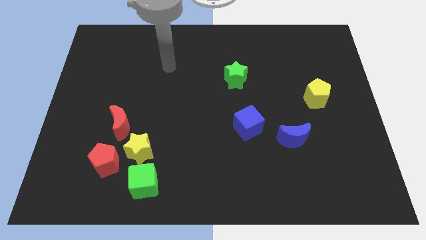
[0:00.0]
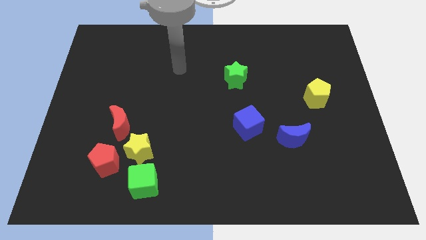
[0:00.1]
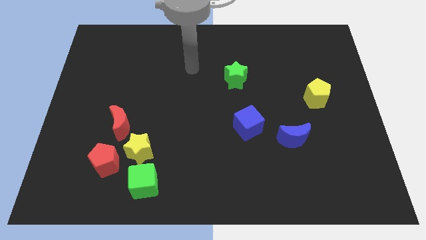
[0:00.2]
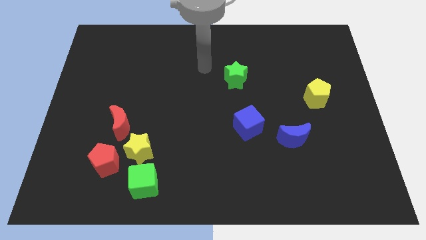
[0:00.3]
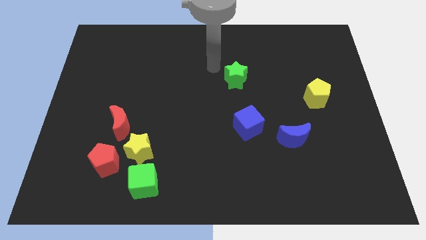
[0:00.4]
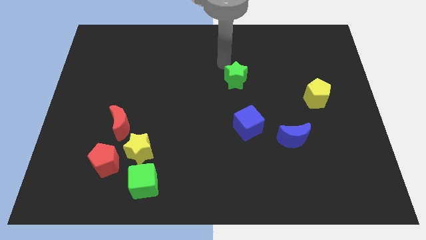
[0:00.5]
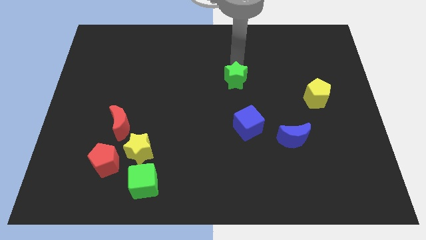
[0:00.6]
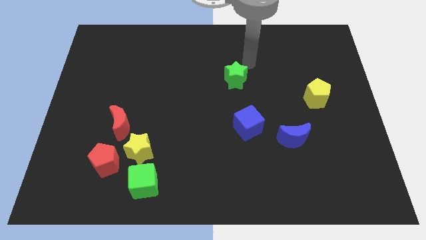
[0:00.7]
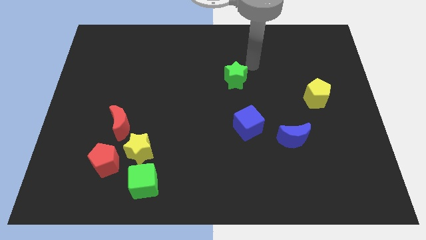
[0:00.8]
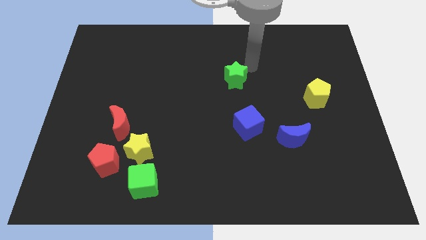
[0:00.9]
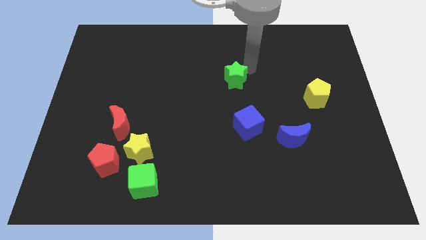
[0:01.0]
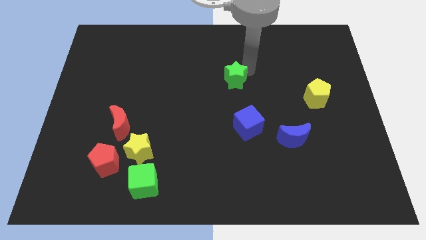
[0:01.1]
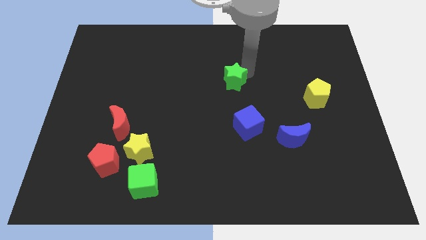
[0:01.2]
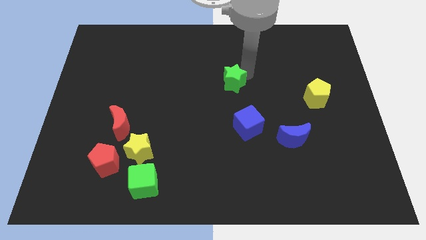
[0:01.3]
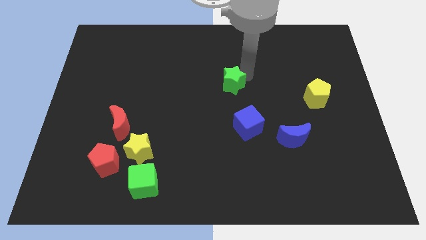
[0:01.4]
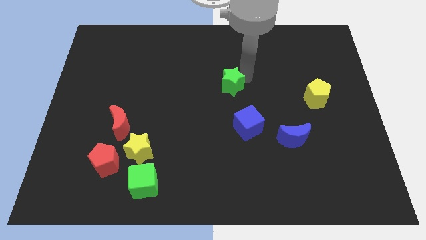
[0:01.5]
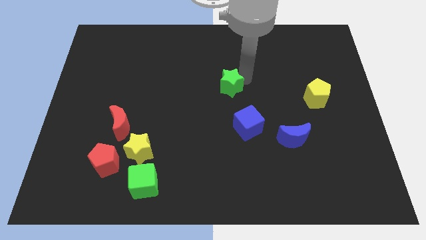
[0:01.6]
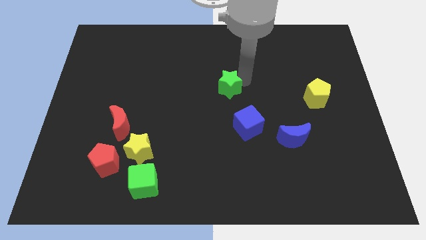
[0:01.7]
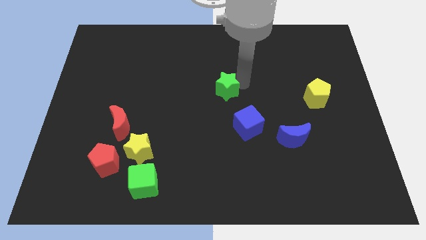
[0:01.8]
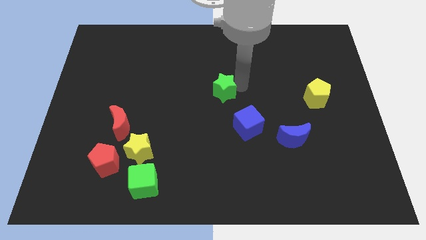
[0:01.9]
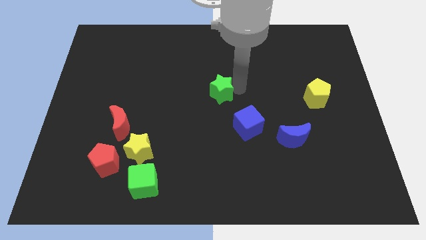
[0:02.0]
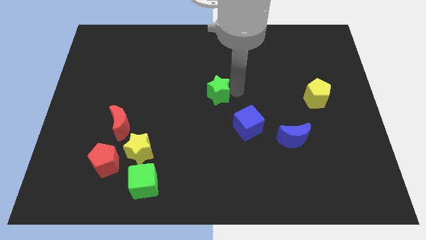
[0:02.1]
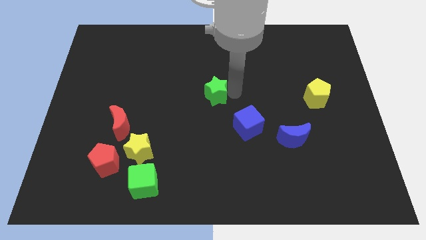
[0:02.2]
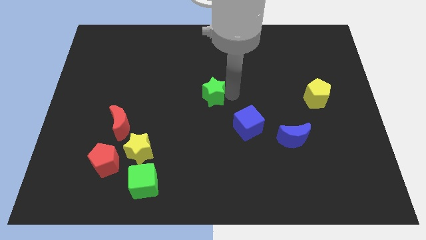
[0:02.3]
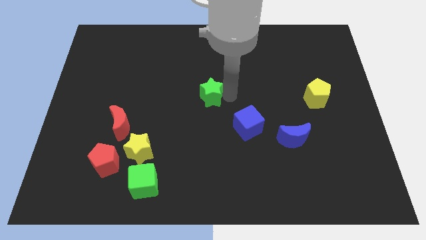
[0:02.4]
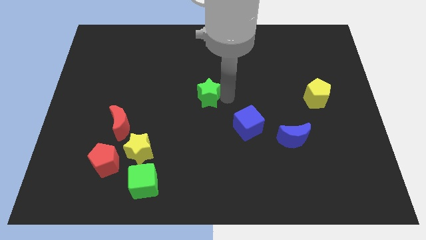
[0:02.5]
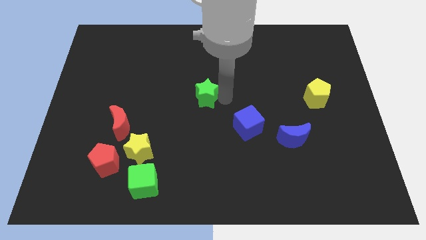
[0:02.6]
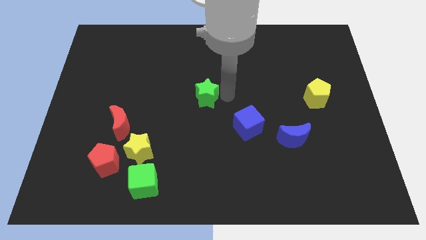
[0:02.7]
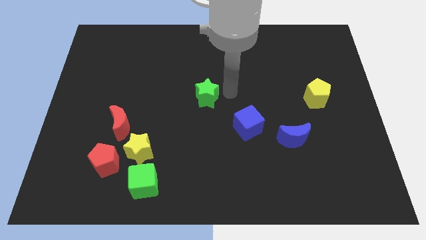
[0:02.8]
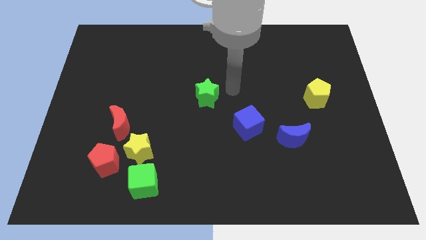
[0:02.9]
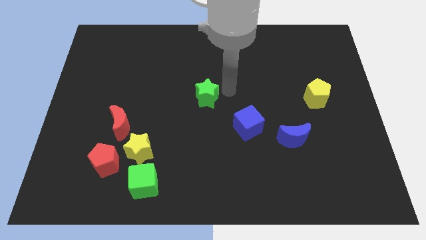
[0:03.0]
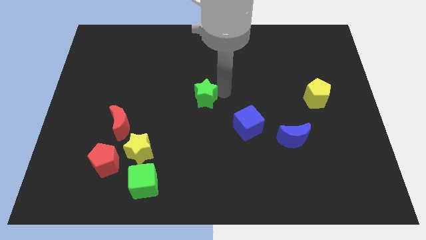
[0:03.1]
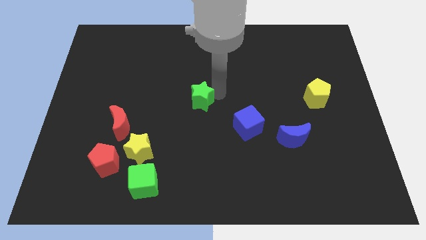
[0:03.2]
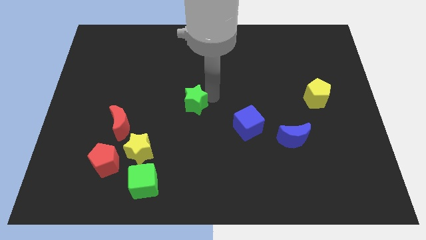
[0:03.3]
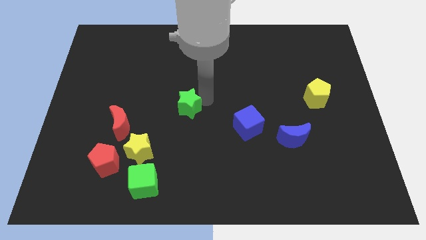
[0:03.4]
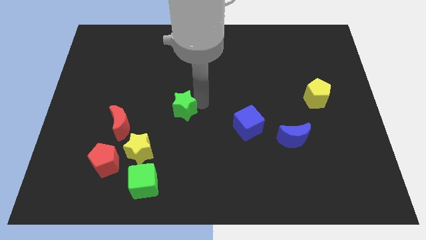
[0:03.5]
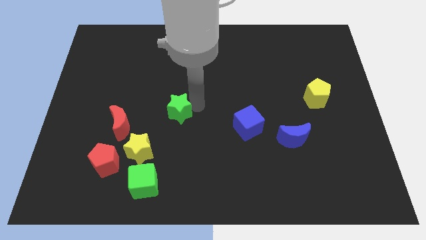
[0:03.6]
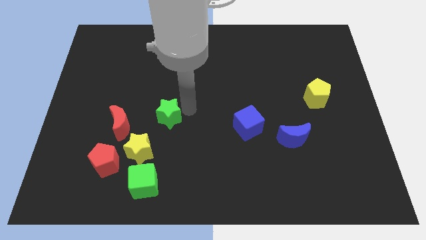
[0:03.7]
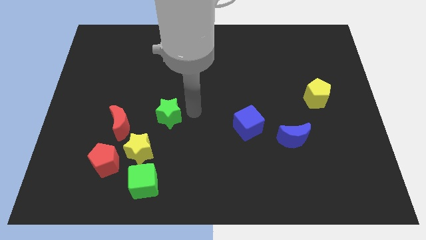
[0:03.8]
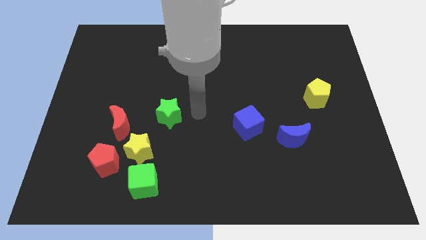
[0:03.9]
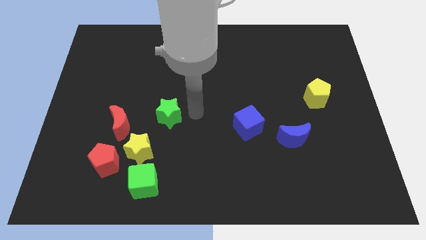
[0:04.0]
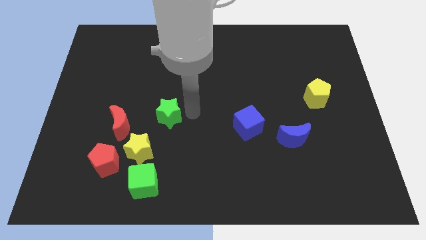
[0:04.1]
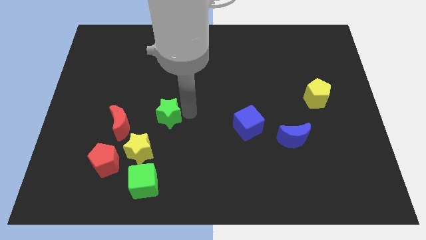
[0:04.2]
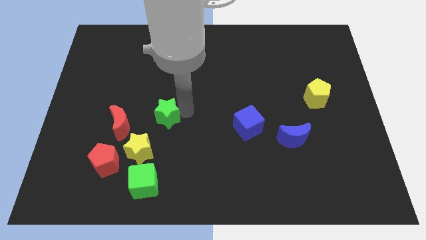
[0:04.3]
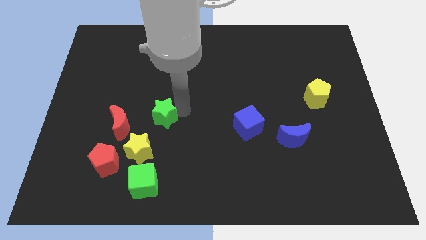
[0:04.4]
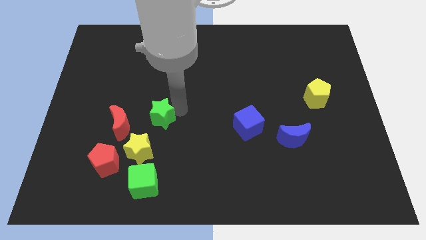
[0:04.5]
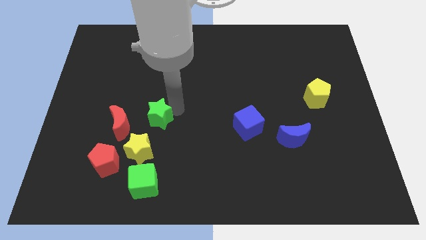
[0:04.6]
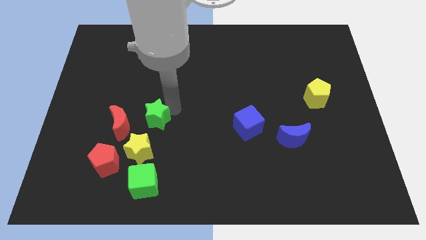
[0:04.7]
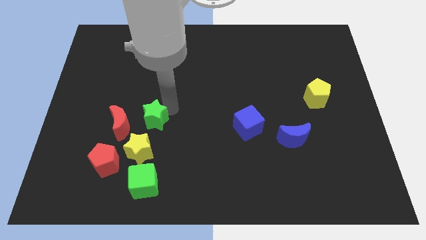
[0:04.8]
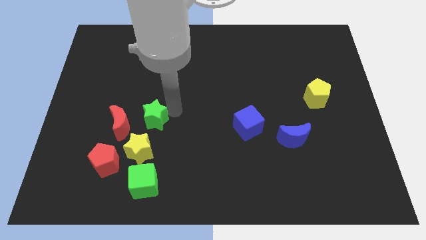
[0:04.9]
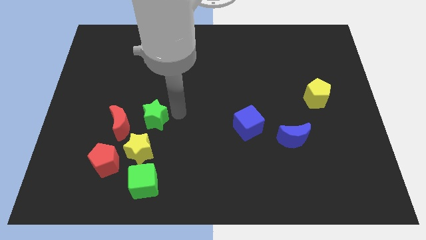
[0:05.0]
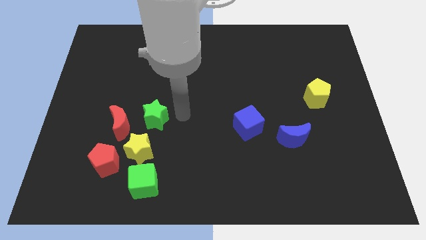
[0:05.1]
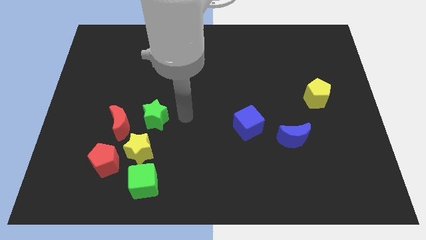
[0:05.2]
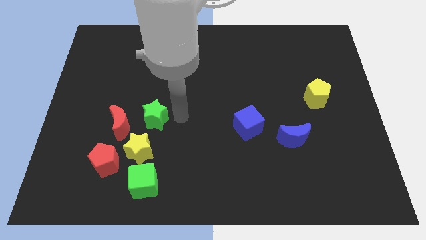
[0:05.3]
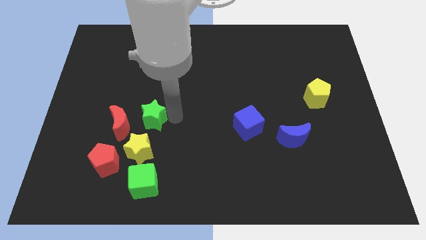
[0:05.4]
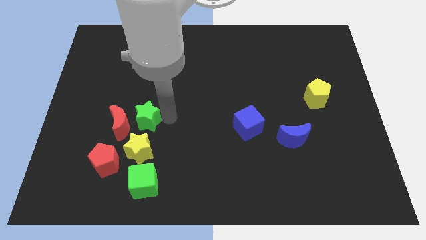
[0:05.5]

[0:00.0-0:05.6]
move the green star to the red moon

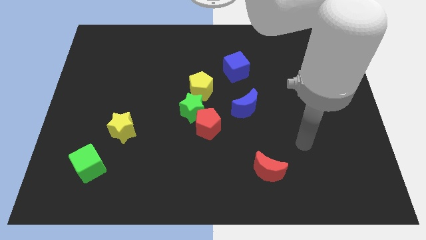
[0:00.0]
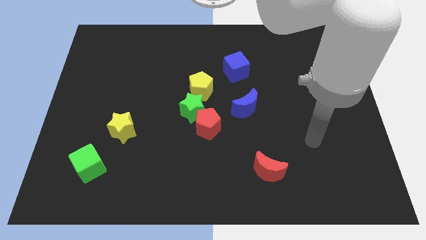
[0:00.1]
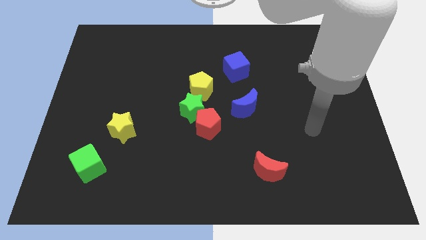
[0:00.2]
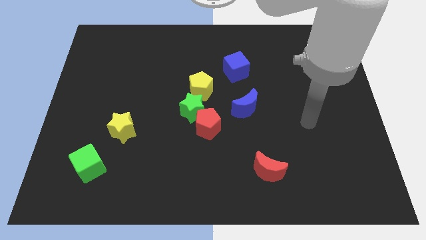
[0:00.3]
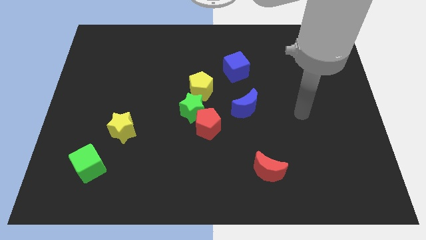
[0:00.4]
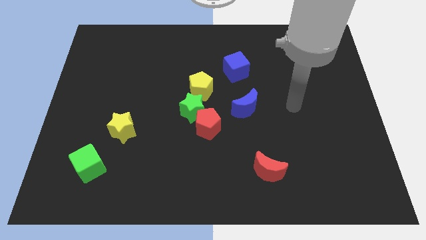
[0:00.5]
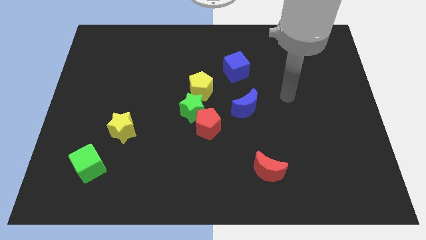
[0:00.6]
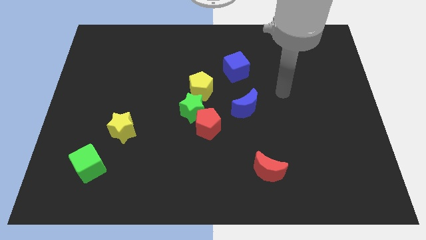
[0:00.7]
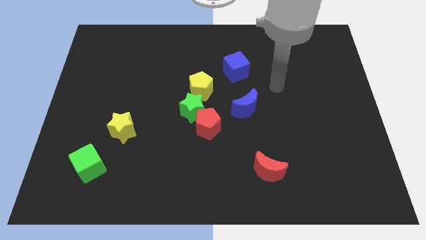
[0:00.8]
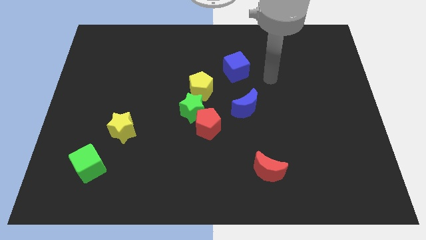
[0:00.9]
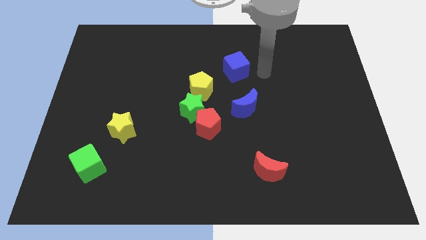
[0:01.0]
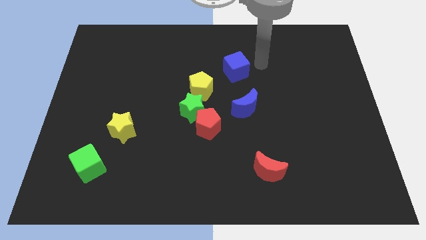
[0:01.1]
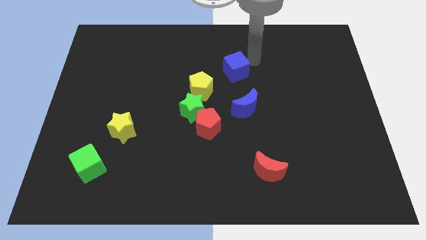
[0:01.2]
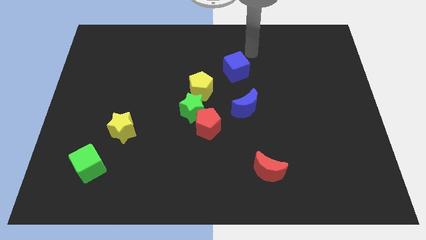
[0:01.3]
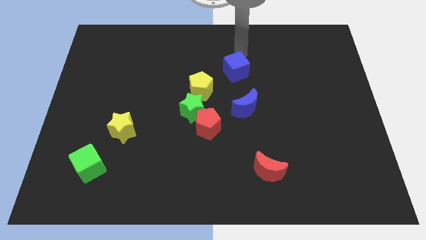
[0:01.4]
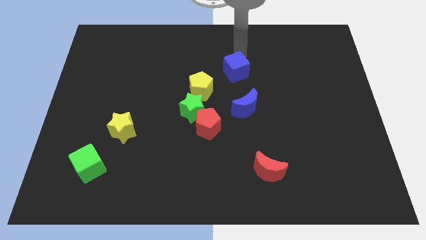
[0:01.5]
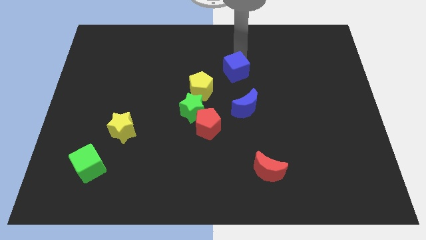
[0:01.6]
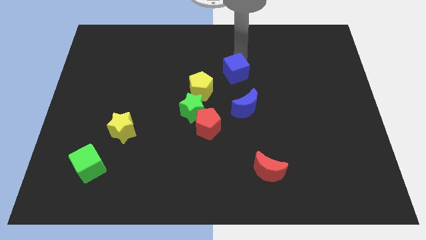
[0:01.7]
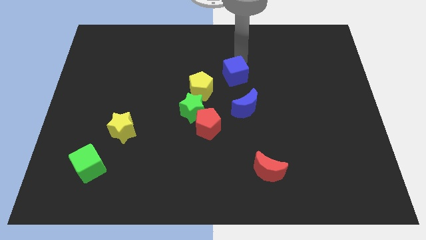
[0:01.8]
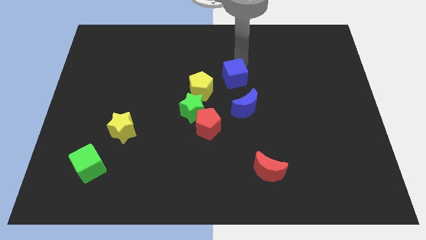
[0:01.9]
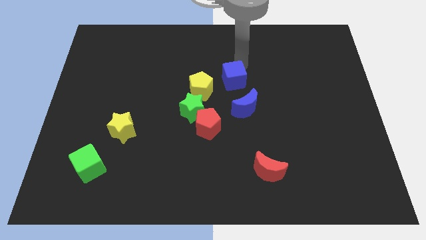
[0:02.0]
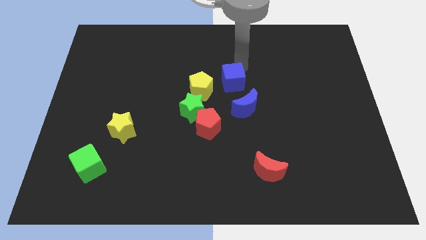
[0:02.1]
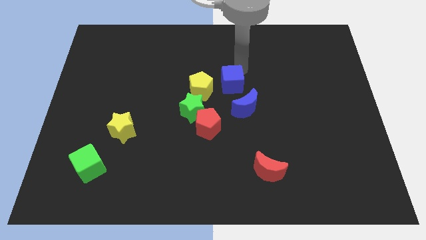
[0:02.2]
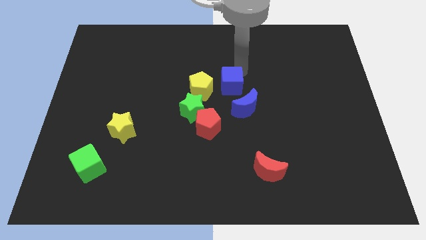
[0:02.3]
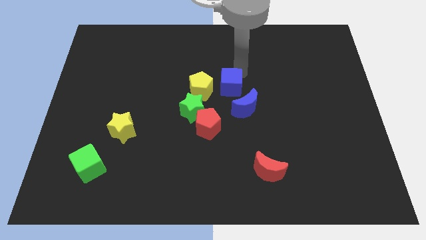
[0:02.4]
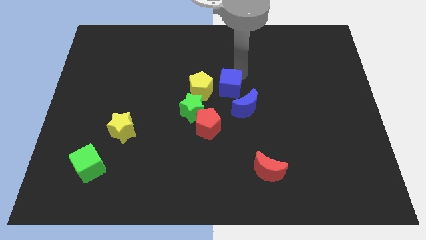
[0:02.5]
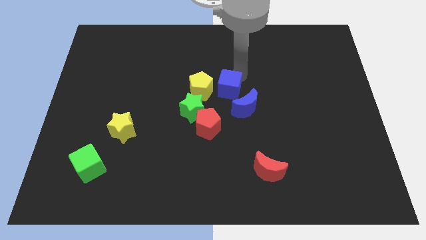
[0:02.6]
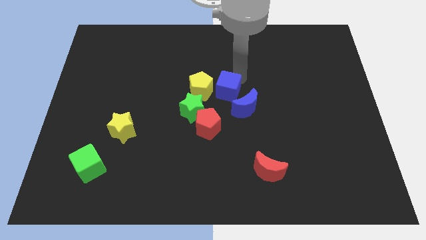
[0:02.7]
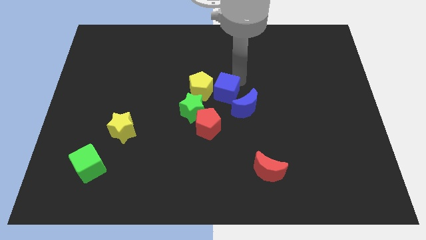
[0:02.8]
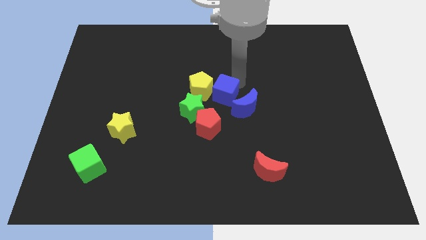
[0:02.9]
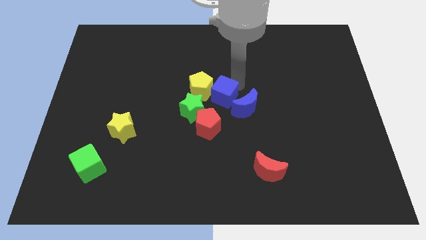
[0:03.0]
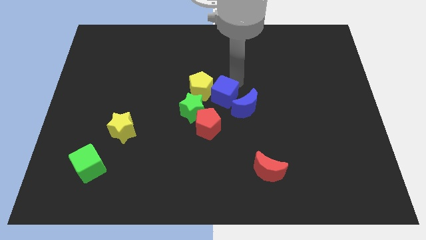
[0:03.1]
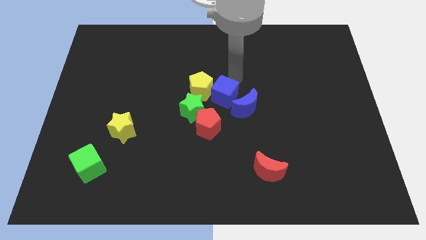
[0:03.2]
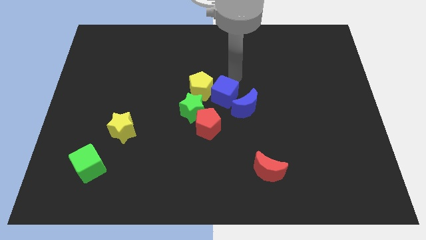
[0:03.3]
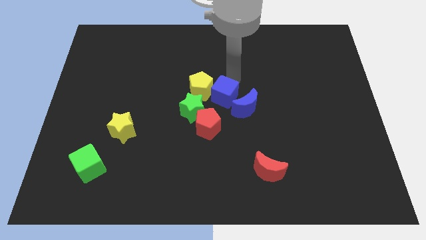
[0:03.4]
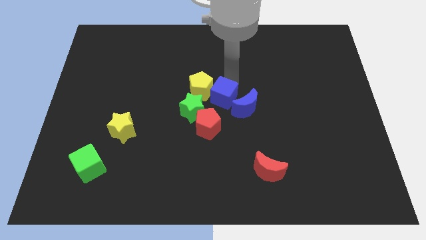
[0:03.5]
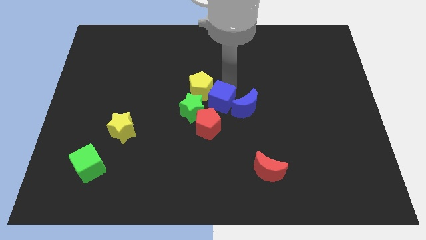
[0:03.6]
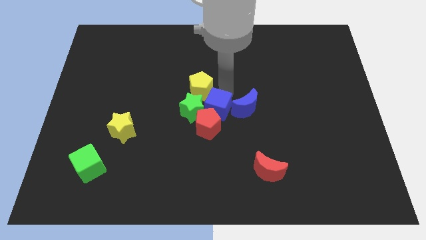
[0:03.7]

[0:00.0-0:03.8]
push the blue cube next to the red pentagon
